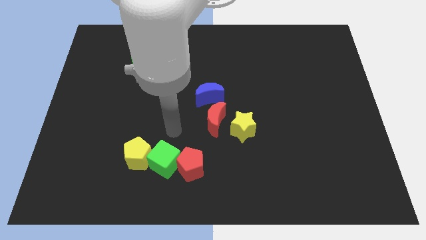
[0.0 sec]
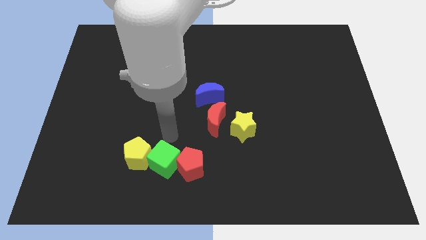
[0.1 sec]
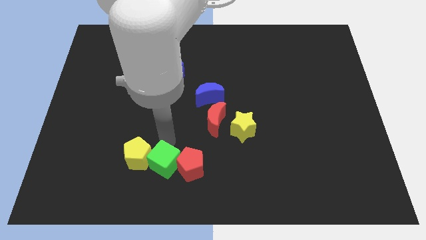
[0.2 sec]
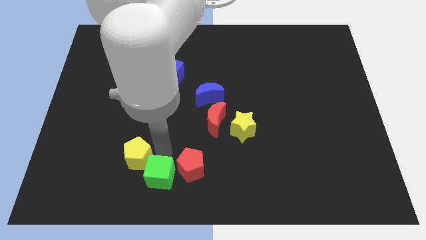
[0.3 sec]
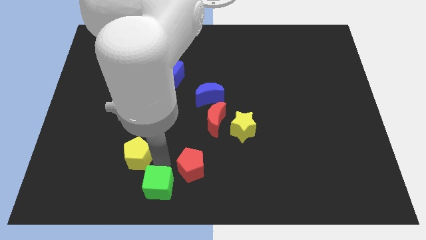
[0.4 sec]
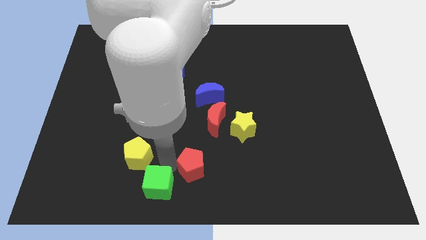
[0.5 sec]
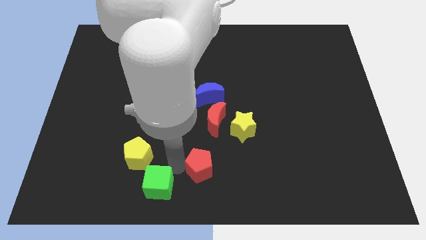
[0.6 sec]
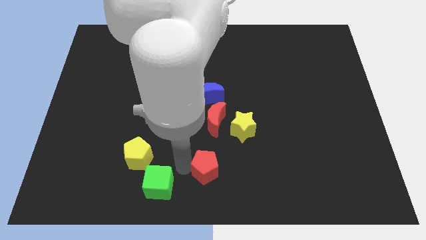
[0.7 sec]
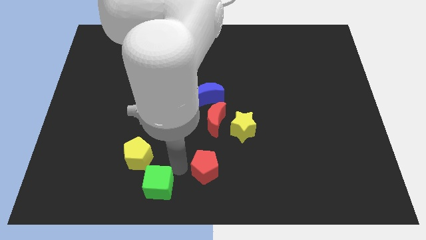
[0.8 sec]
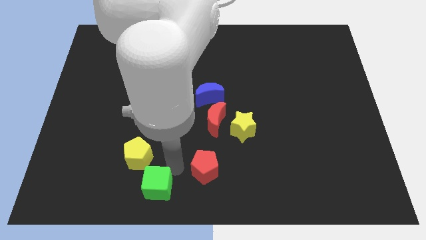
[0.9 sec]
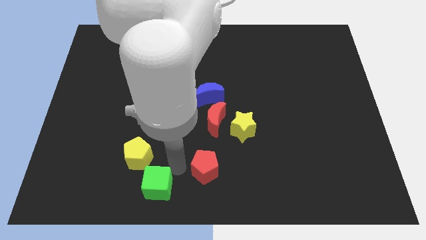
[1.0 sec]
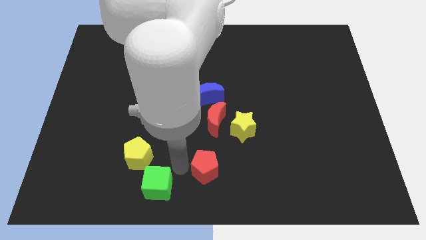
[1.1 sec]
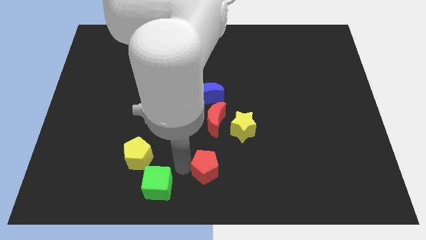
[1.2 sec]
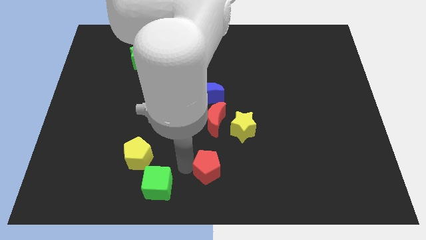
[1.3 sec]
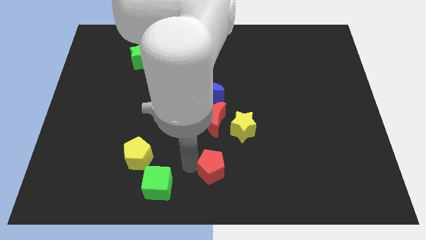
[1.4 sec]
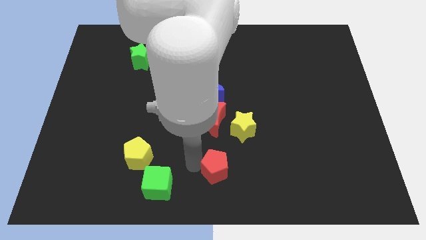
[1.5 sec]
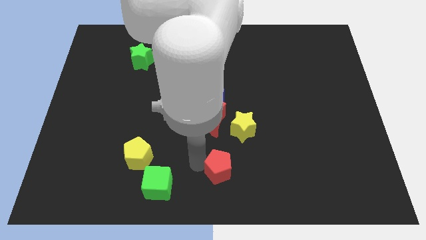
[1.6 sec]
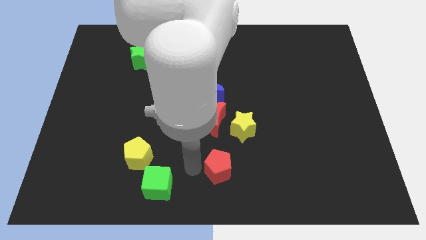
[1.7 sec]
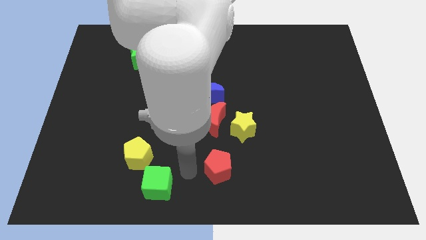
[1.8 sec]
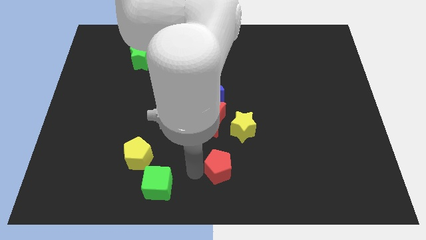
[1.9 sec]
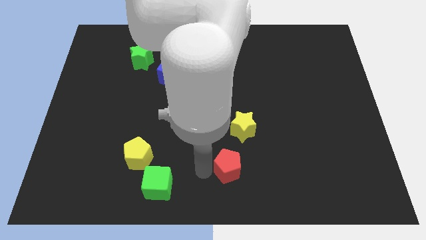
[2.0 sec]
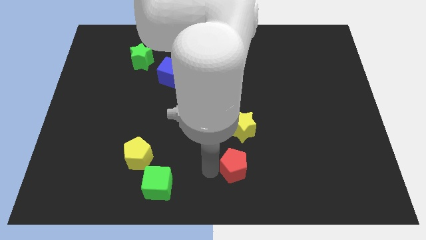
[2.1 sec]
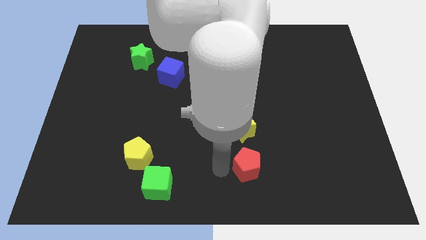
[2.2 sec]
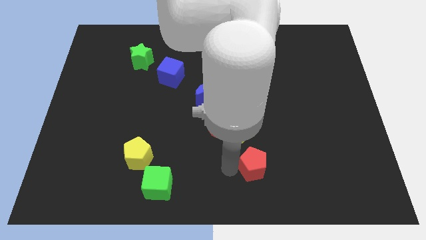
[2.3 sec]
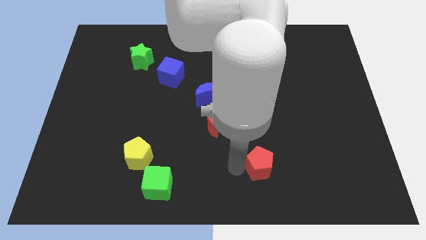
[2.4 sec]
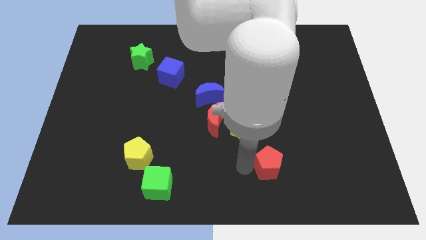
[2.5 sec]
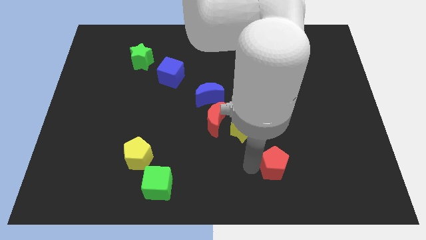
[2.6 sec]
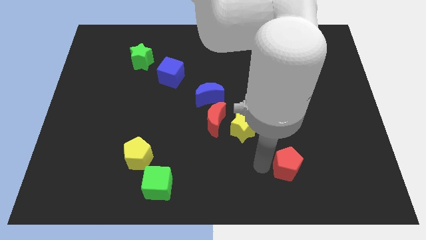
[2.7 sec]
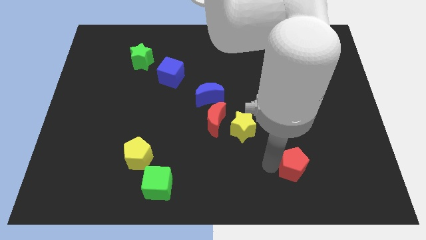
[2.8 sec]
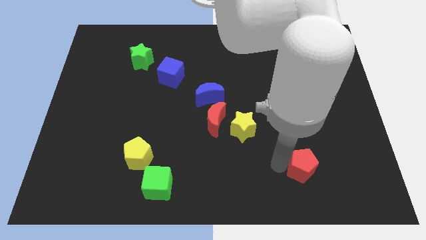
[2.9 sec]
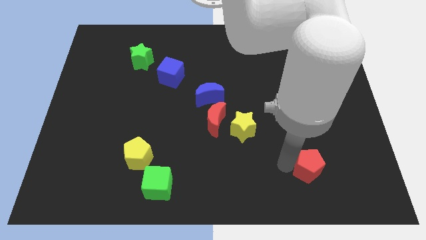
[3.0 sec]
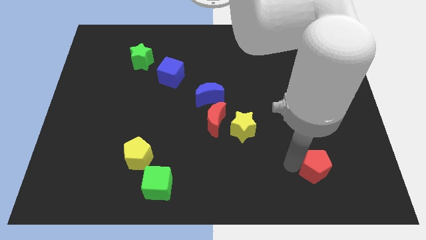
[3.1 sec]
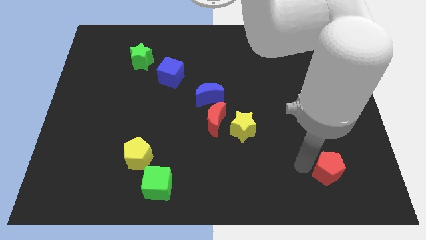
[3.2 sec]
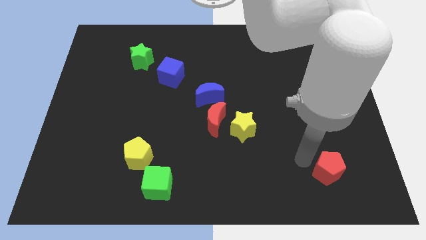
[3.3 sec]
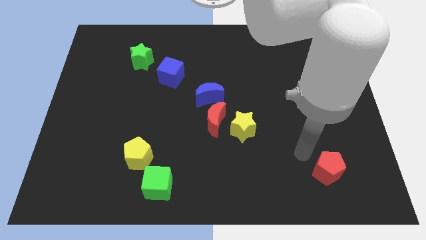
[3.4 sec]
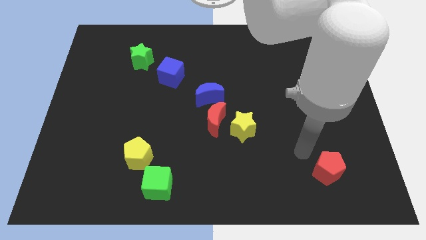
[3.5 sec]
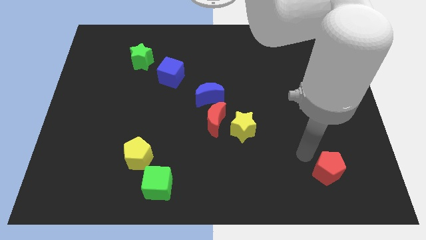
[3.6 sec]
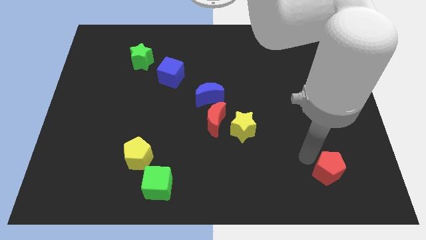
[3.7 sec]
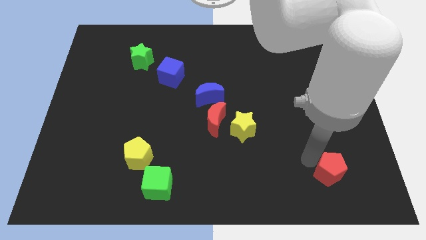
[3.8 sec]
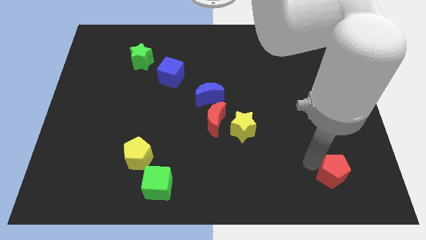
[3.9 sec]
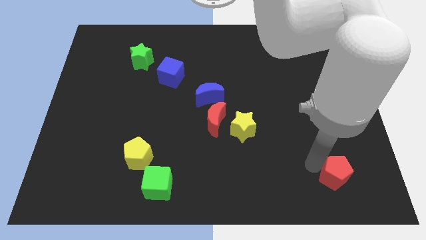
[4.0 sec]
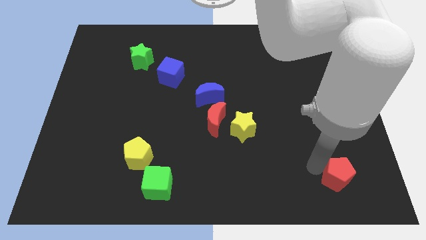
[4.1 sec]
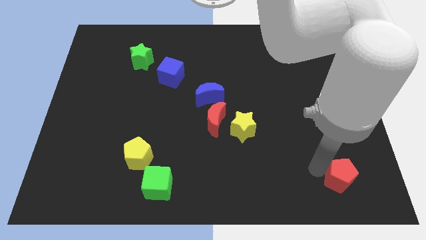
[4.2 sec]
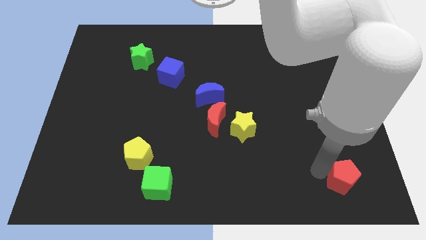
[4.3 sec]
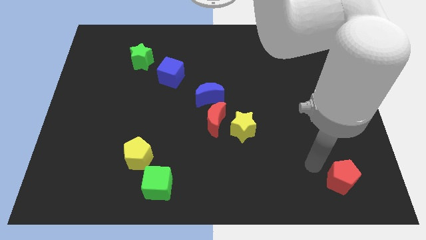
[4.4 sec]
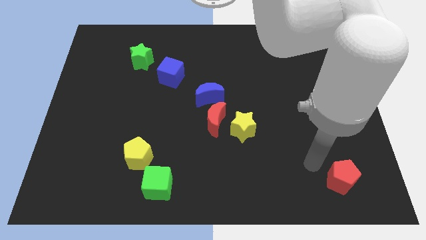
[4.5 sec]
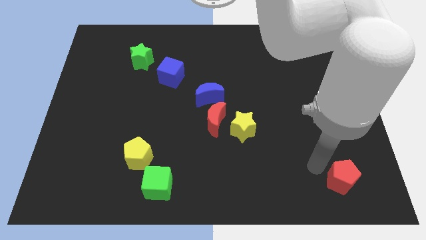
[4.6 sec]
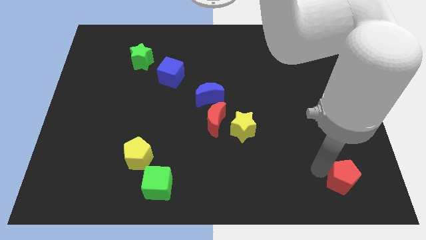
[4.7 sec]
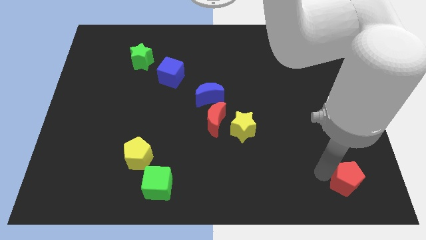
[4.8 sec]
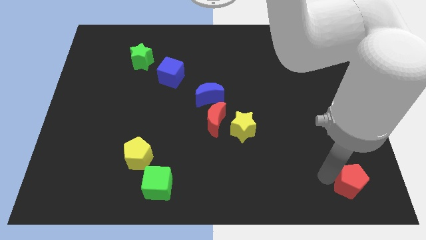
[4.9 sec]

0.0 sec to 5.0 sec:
move the red pentagon to the bottom right of the board

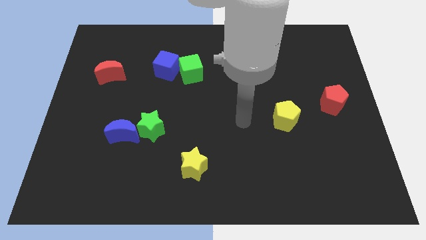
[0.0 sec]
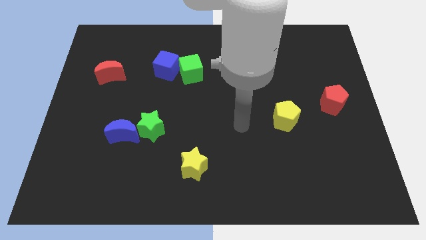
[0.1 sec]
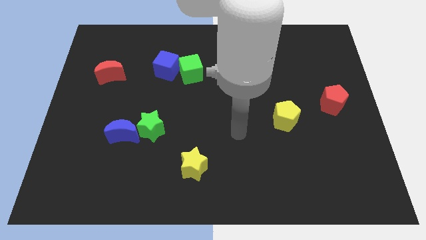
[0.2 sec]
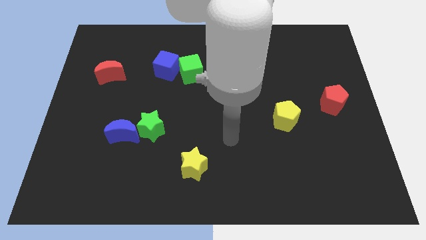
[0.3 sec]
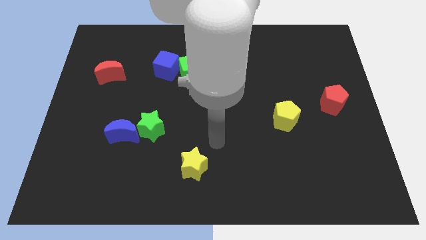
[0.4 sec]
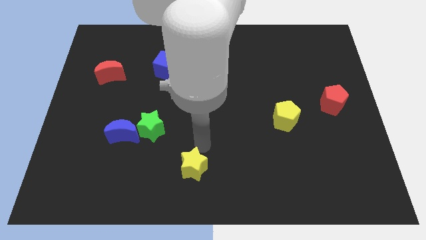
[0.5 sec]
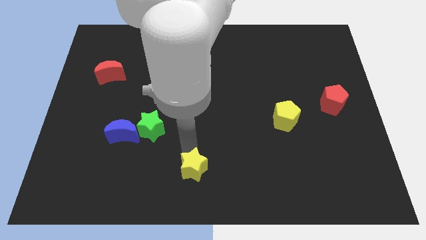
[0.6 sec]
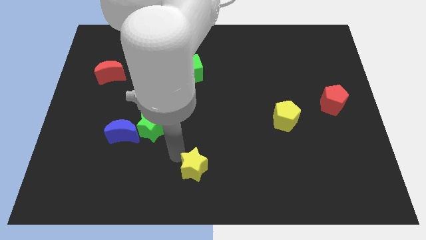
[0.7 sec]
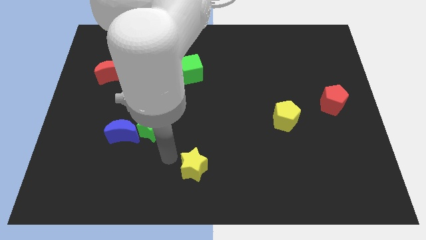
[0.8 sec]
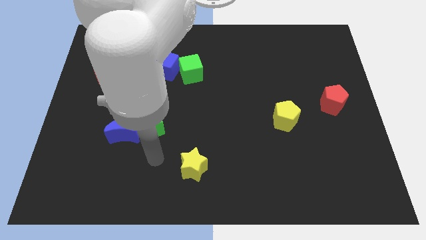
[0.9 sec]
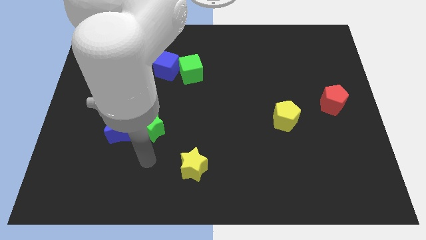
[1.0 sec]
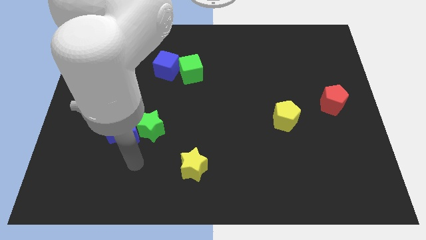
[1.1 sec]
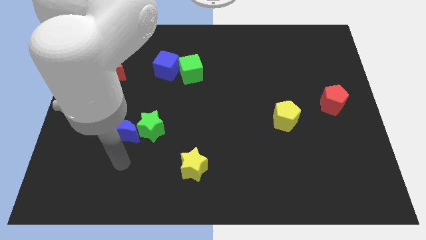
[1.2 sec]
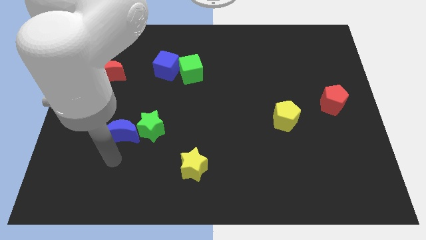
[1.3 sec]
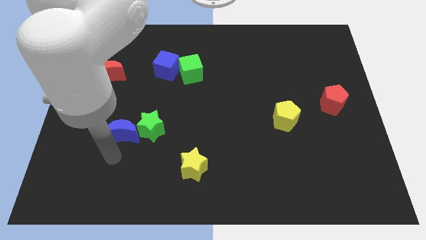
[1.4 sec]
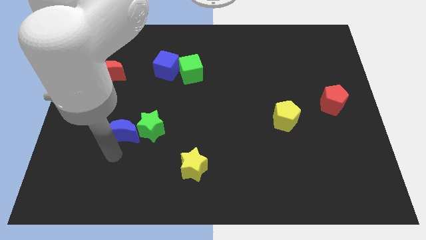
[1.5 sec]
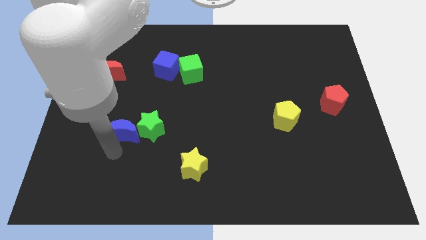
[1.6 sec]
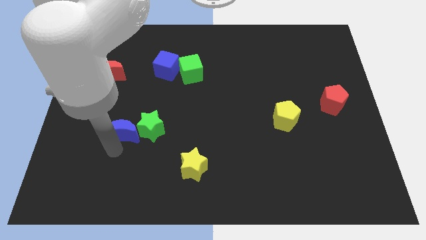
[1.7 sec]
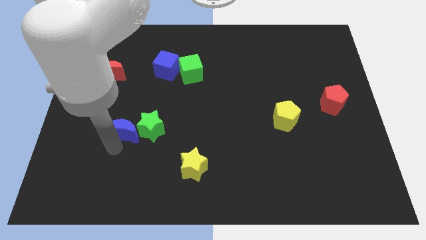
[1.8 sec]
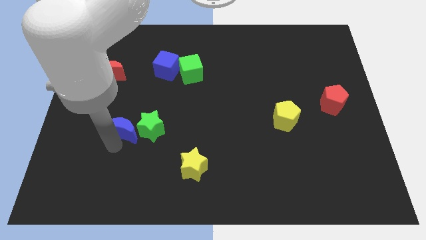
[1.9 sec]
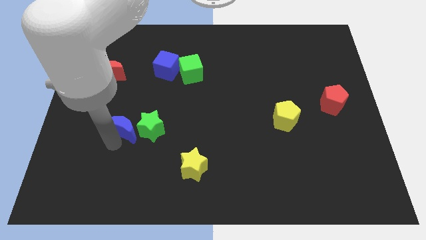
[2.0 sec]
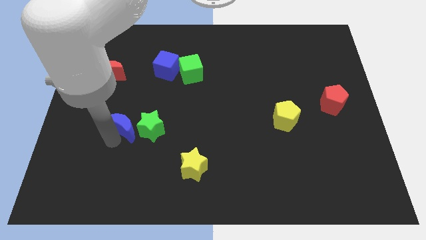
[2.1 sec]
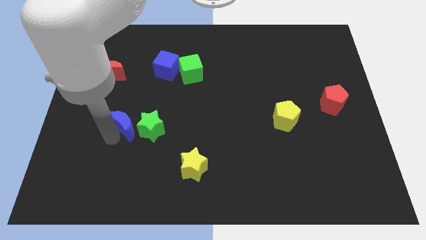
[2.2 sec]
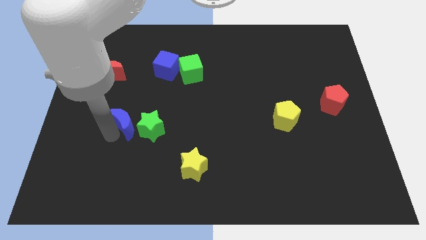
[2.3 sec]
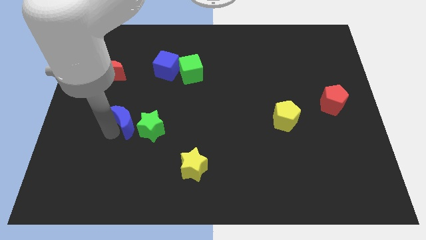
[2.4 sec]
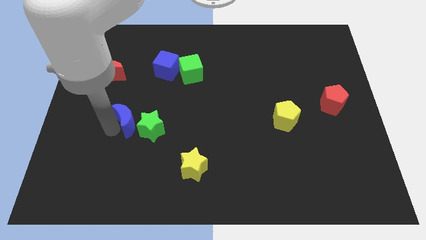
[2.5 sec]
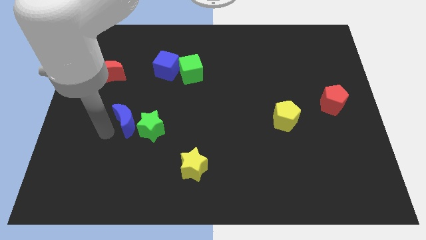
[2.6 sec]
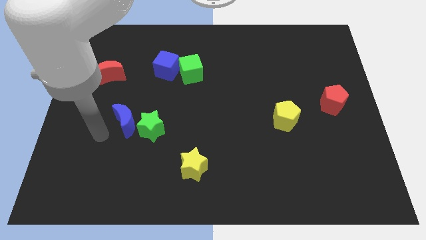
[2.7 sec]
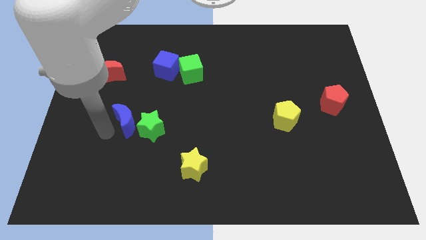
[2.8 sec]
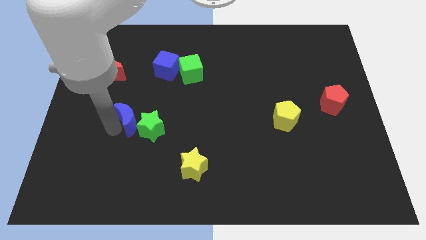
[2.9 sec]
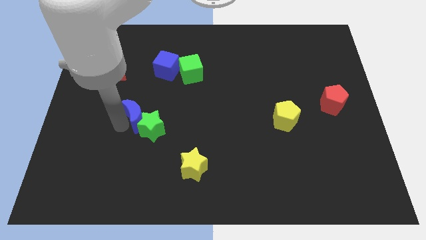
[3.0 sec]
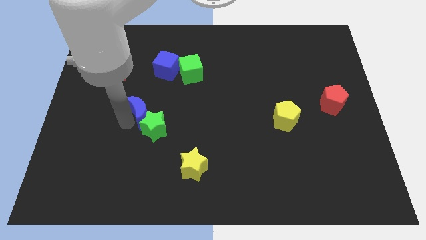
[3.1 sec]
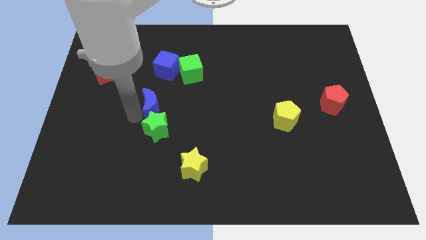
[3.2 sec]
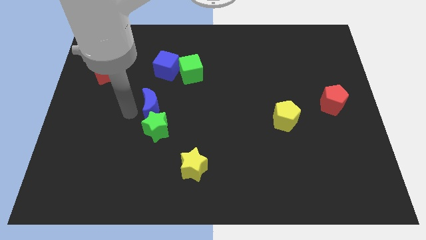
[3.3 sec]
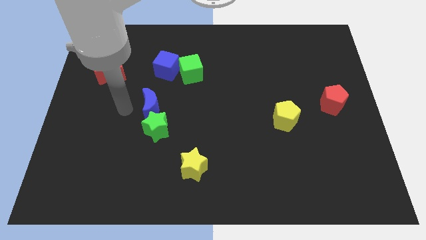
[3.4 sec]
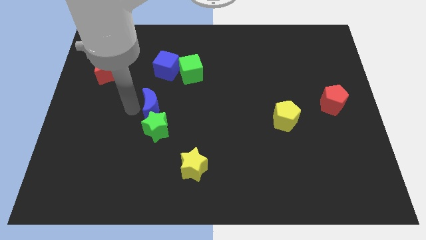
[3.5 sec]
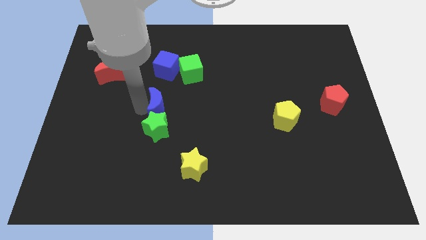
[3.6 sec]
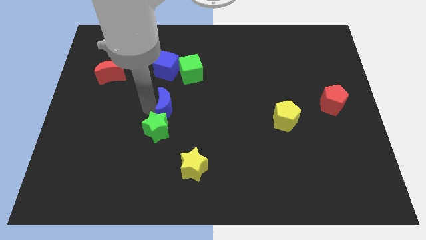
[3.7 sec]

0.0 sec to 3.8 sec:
put the blue moon to the center
